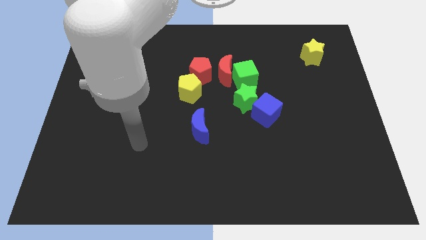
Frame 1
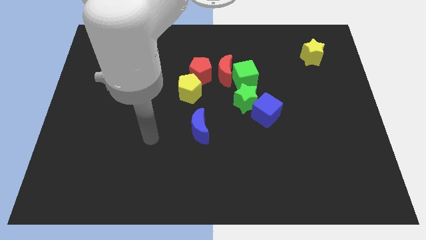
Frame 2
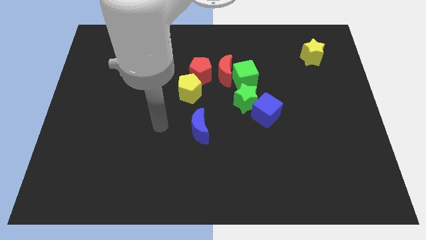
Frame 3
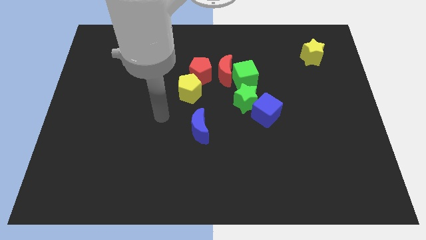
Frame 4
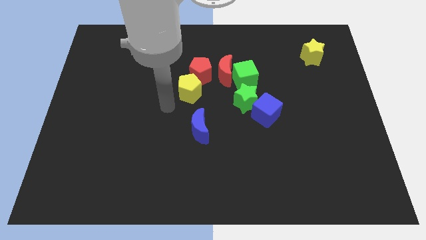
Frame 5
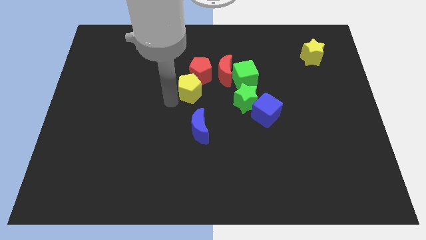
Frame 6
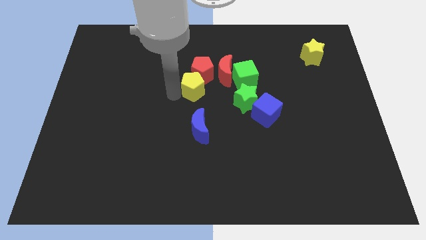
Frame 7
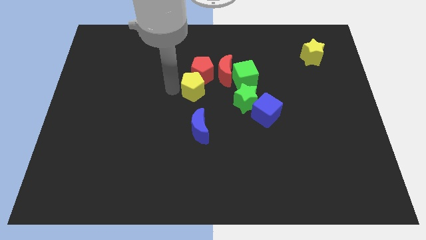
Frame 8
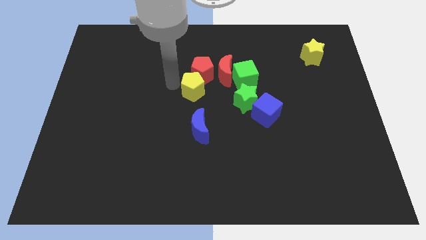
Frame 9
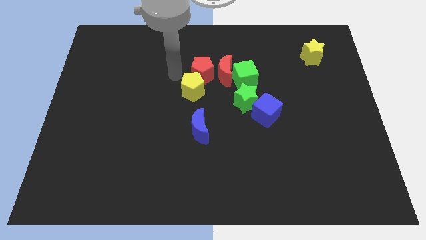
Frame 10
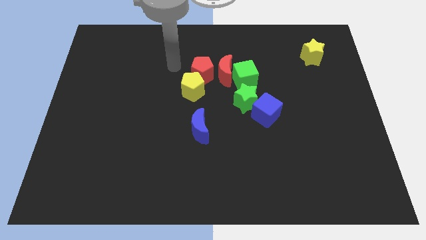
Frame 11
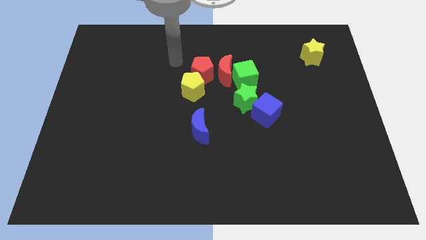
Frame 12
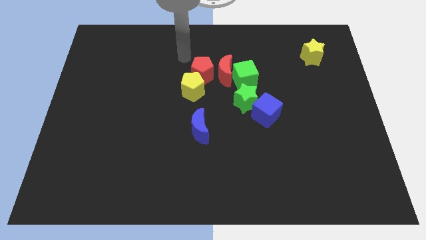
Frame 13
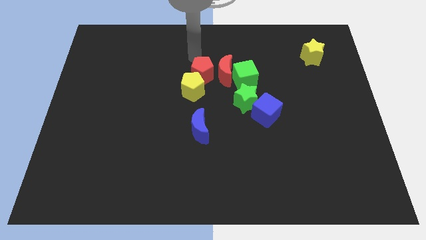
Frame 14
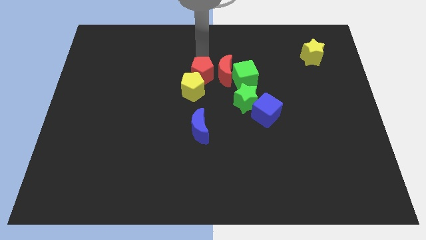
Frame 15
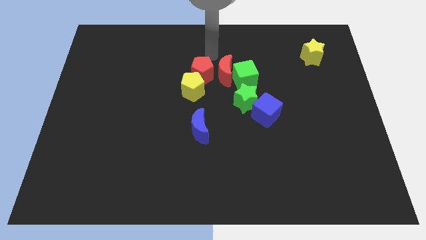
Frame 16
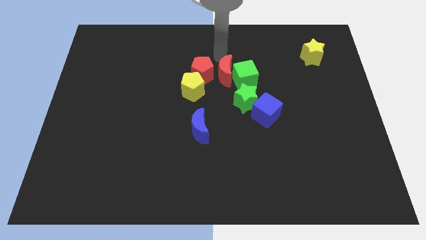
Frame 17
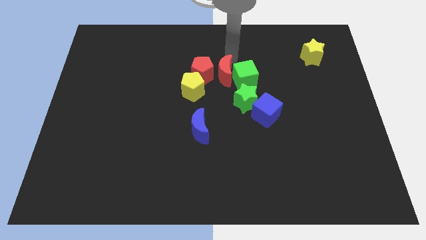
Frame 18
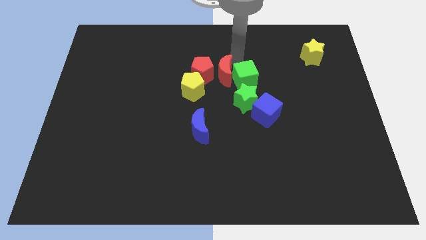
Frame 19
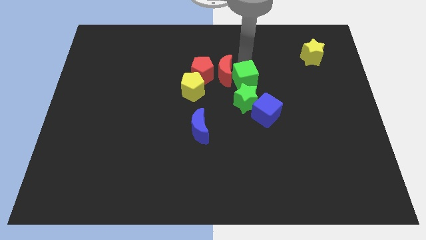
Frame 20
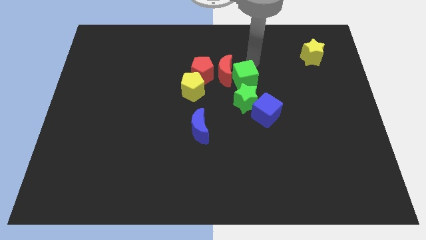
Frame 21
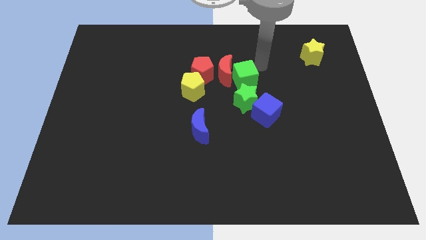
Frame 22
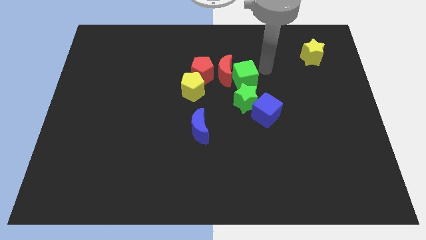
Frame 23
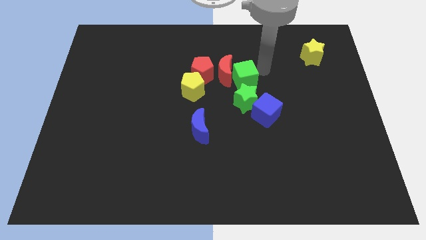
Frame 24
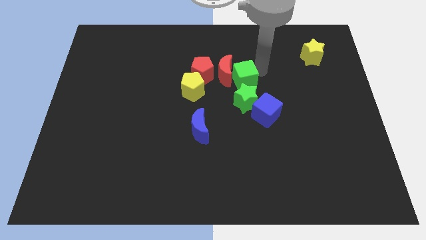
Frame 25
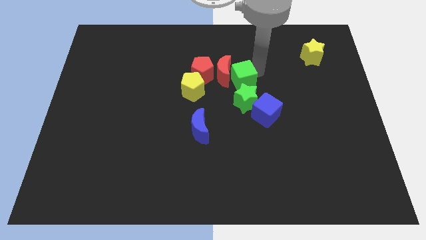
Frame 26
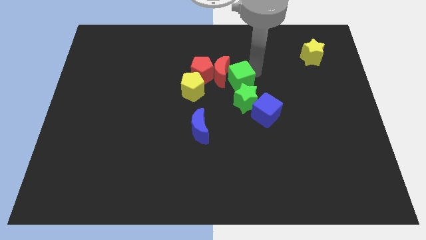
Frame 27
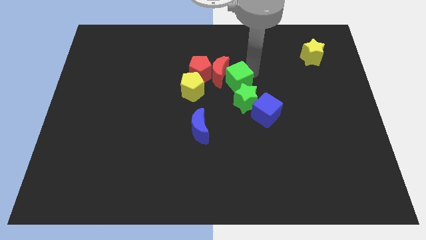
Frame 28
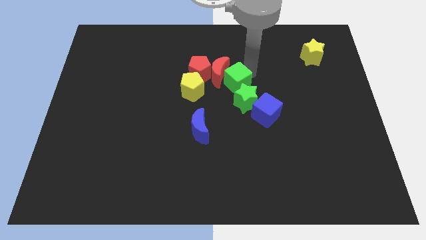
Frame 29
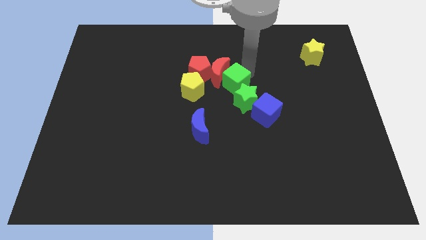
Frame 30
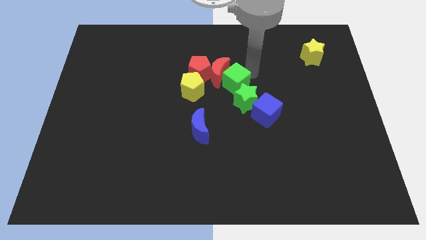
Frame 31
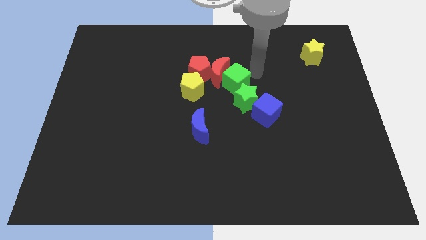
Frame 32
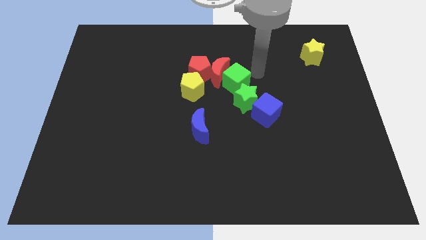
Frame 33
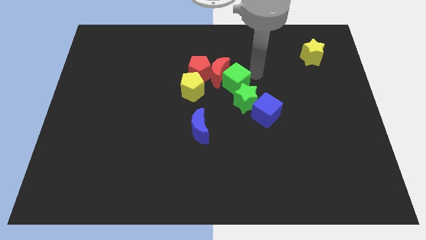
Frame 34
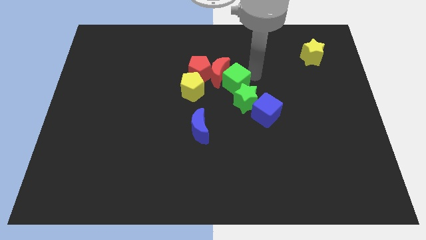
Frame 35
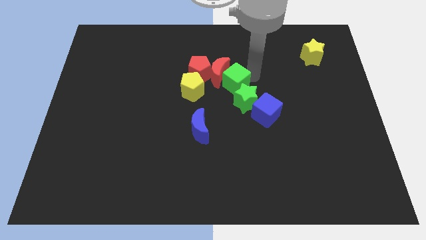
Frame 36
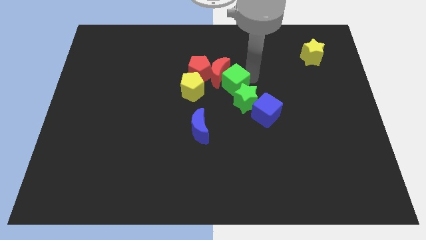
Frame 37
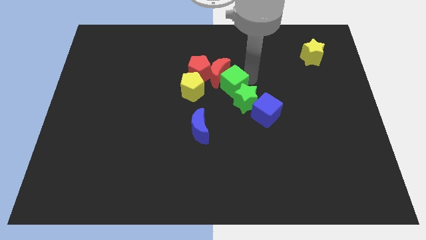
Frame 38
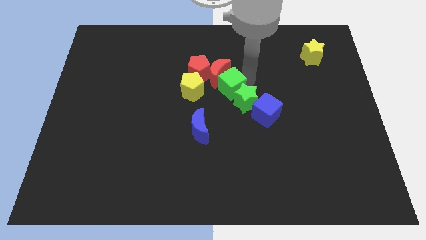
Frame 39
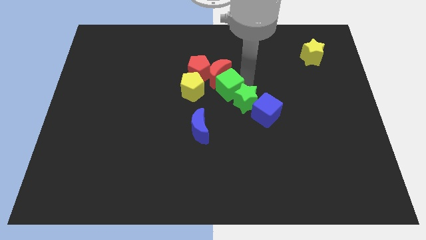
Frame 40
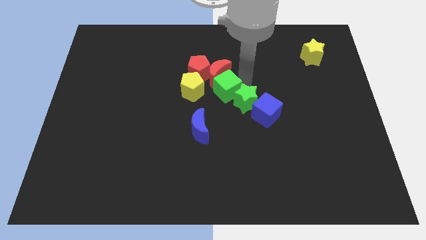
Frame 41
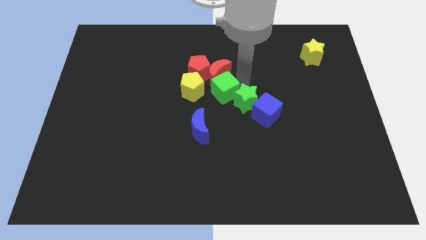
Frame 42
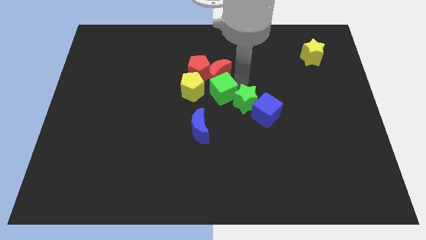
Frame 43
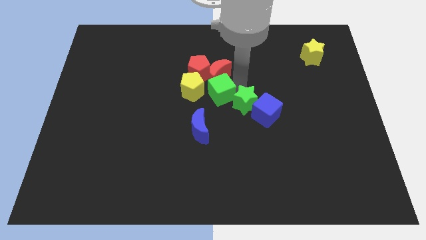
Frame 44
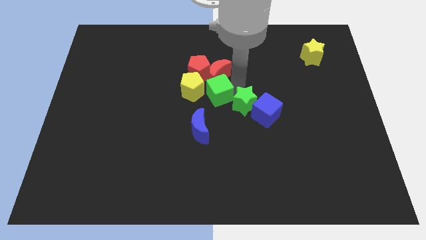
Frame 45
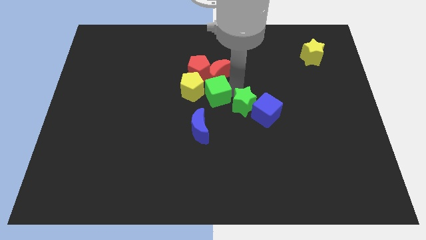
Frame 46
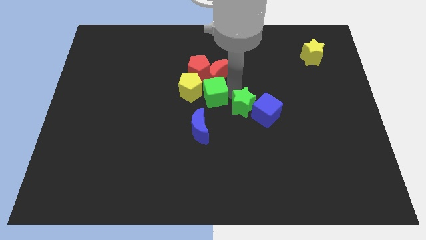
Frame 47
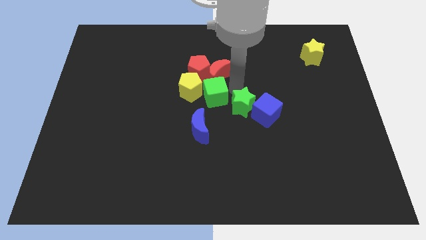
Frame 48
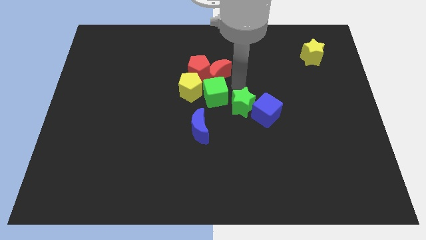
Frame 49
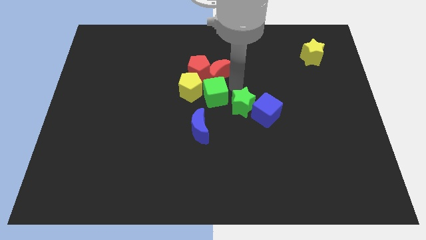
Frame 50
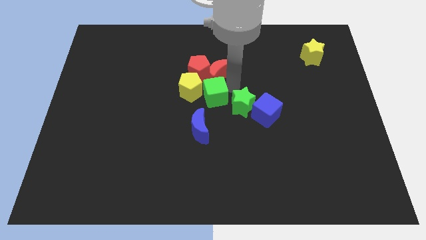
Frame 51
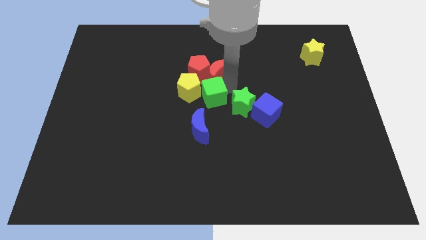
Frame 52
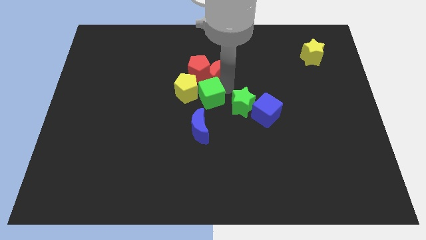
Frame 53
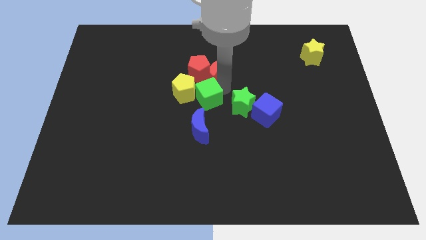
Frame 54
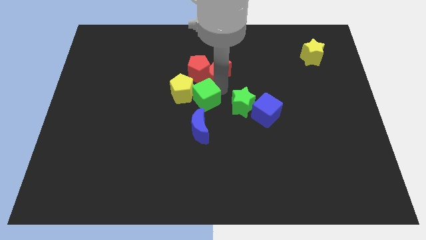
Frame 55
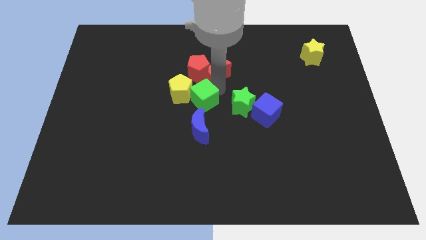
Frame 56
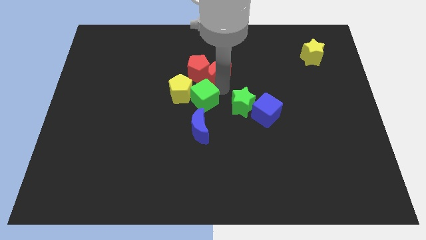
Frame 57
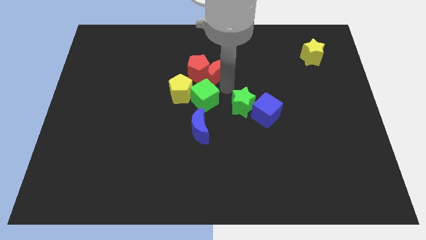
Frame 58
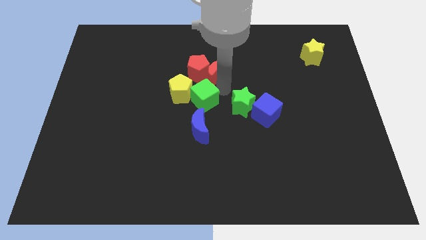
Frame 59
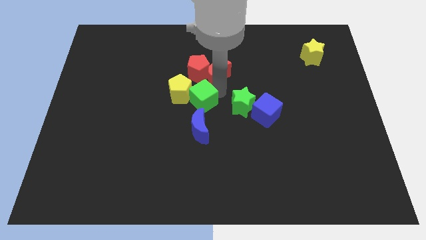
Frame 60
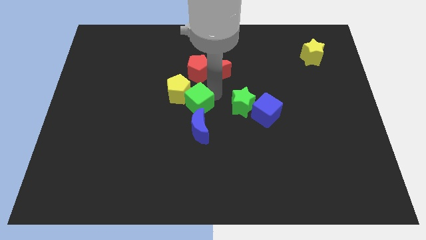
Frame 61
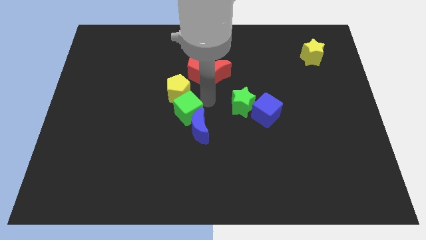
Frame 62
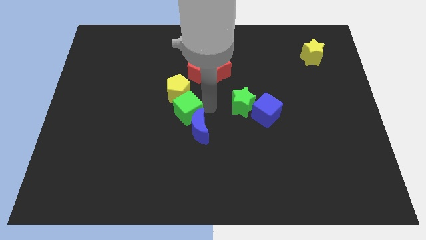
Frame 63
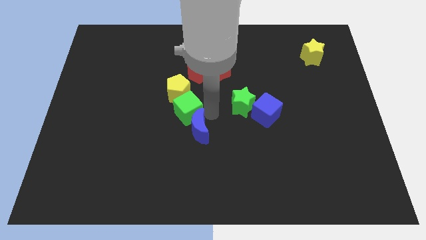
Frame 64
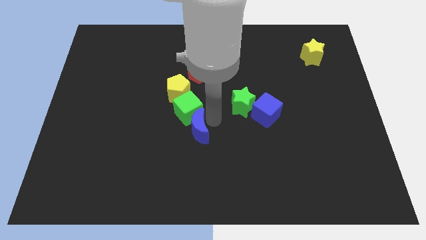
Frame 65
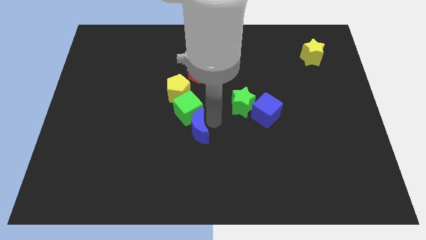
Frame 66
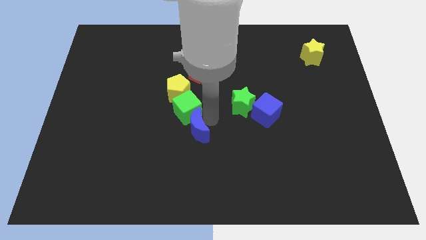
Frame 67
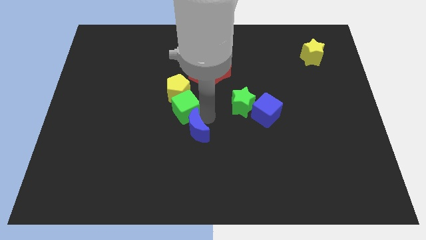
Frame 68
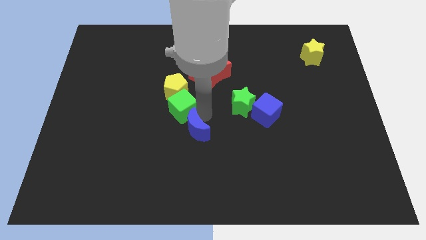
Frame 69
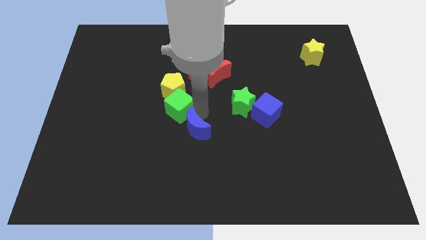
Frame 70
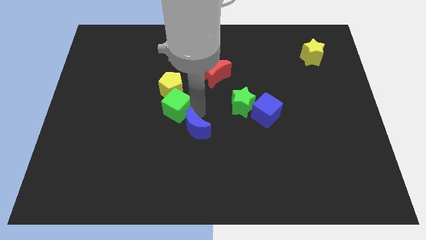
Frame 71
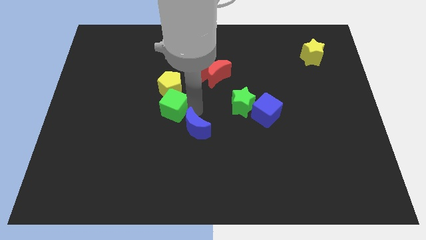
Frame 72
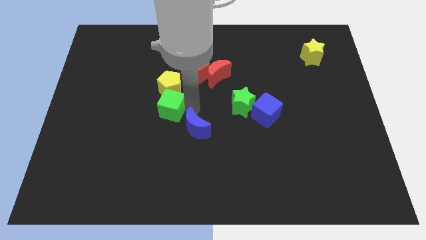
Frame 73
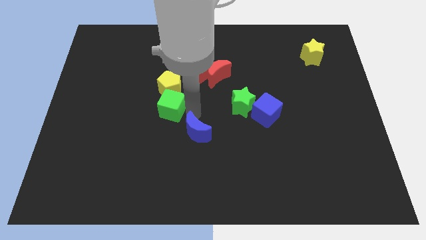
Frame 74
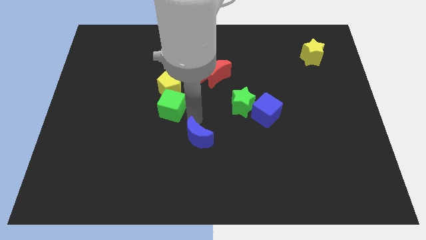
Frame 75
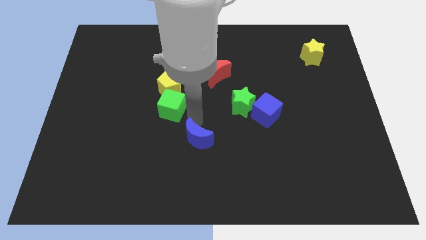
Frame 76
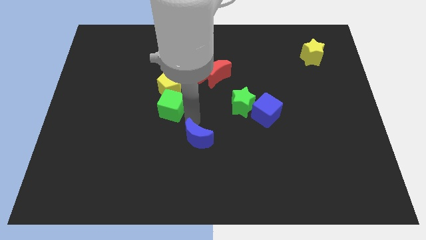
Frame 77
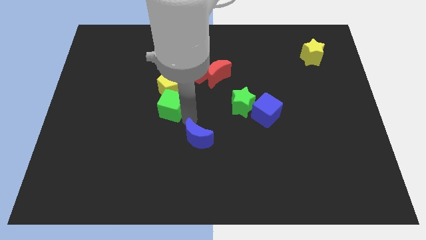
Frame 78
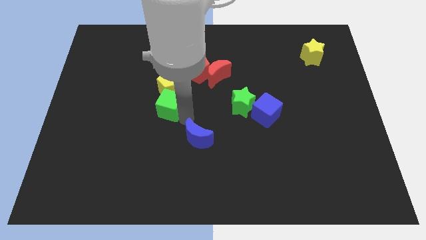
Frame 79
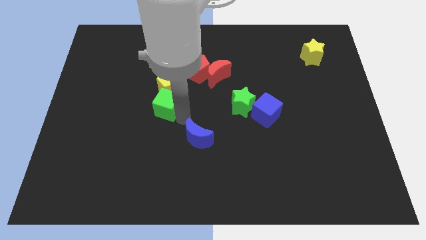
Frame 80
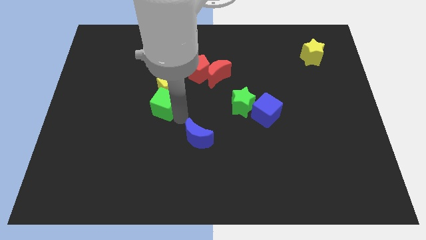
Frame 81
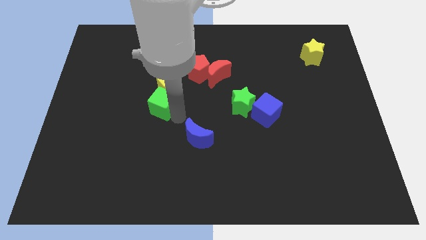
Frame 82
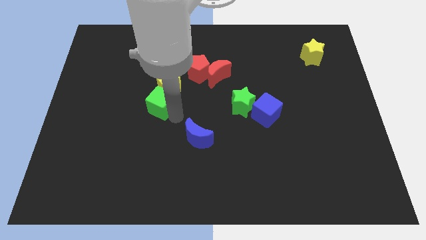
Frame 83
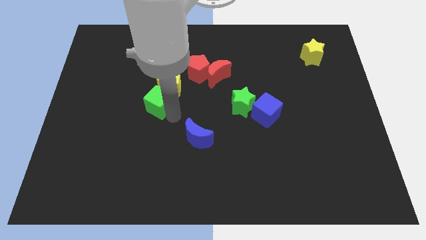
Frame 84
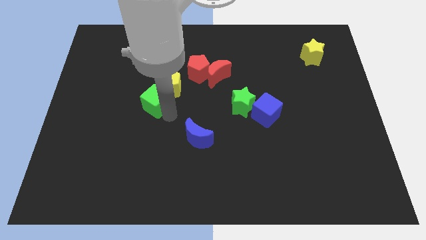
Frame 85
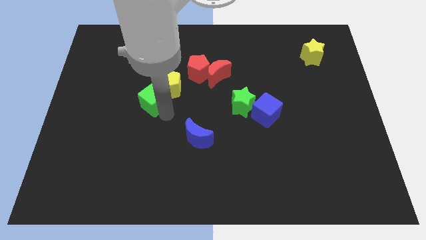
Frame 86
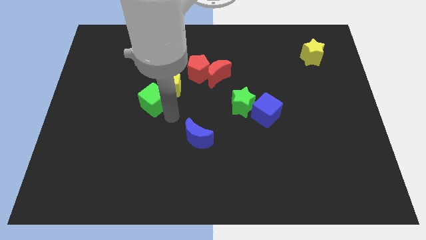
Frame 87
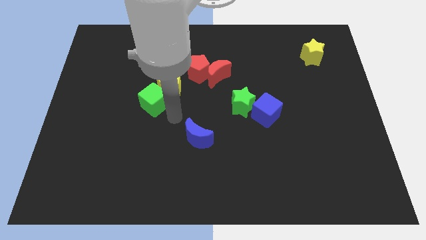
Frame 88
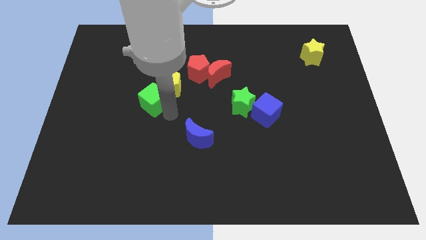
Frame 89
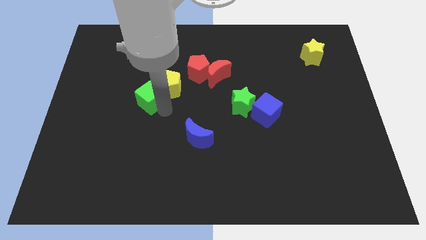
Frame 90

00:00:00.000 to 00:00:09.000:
move the green cube left
